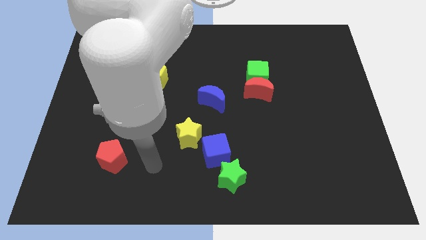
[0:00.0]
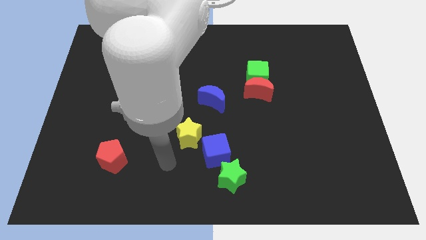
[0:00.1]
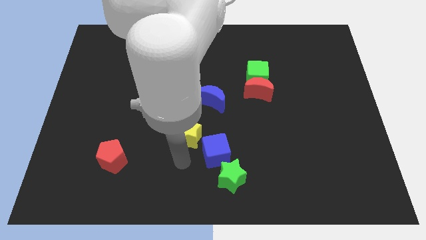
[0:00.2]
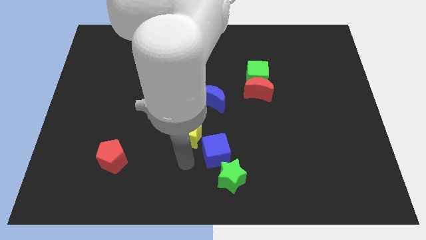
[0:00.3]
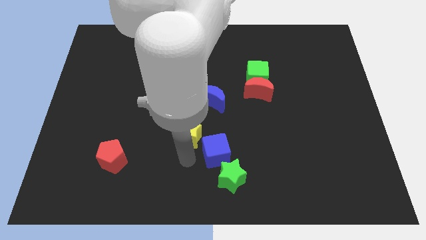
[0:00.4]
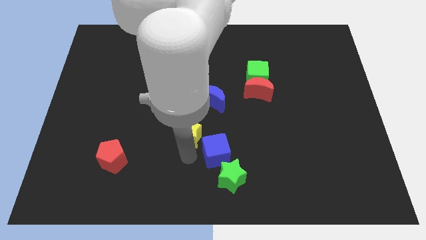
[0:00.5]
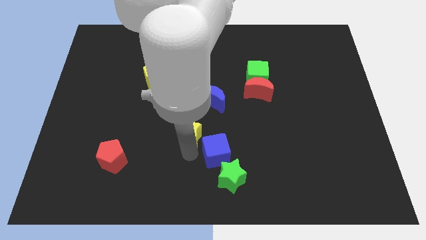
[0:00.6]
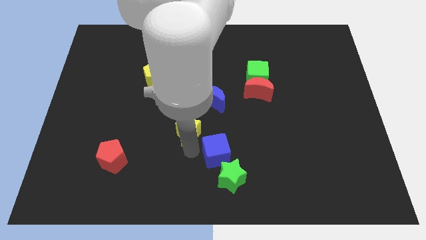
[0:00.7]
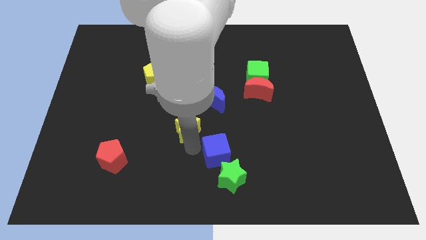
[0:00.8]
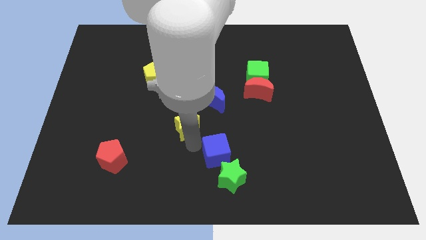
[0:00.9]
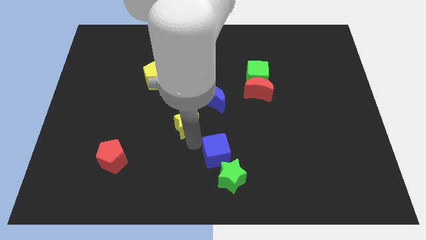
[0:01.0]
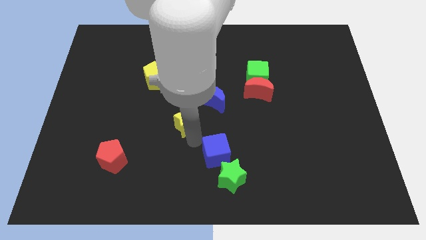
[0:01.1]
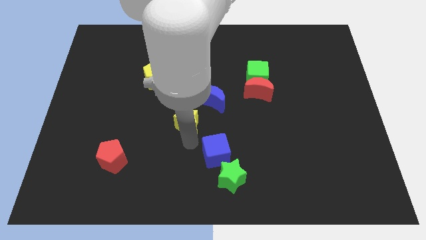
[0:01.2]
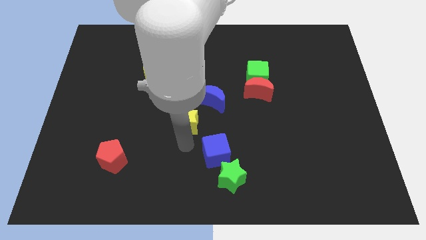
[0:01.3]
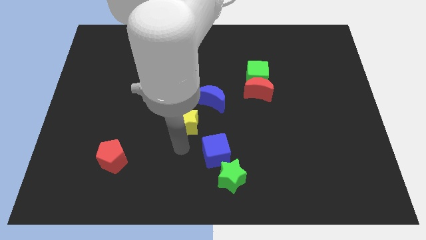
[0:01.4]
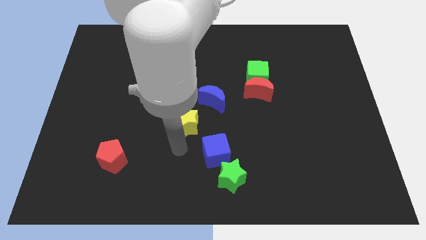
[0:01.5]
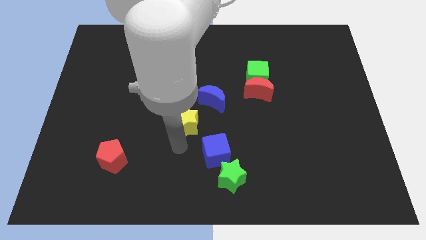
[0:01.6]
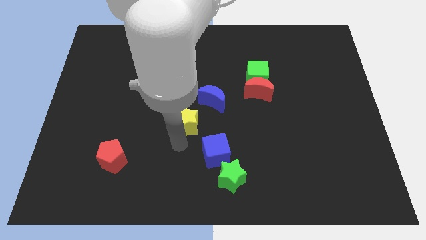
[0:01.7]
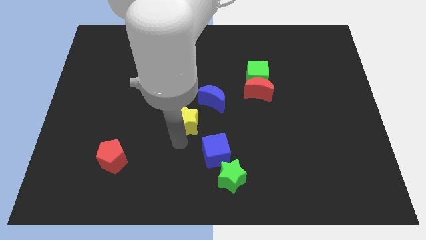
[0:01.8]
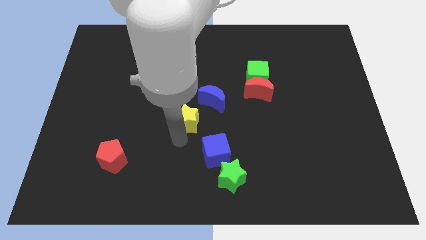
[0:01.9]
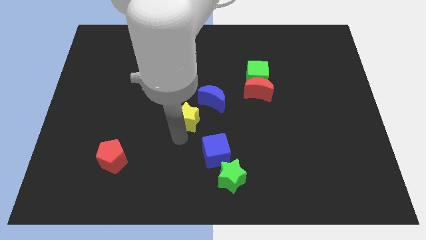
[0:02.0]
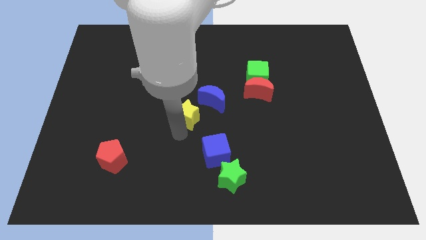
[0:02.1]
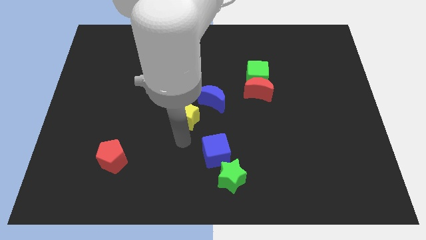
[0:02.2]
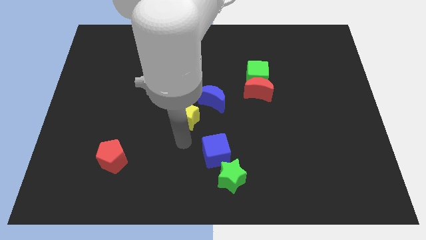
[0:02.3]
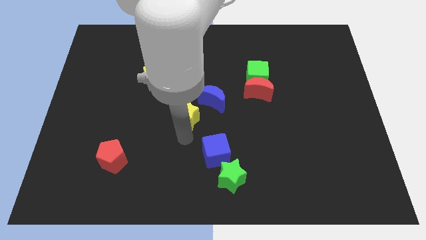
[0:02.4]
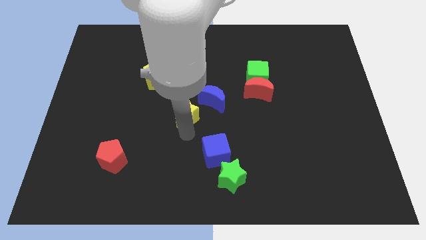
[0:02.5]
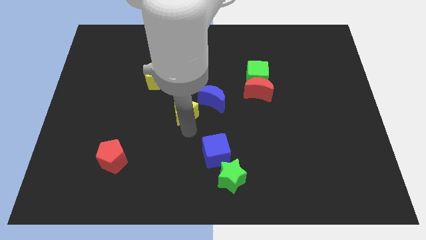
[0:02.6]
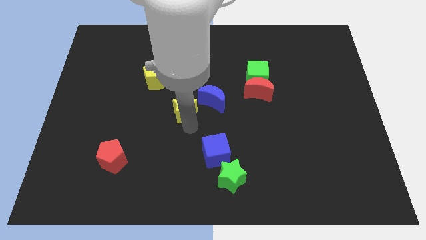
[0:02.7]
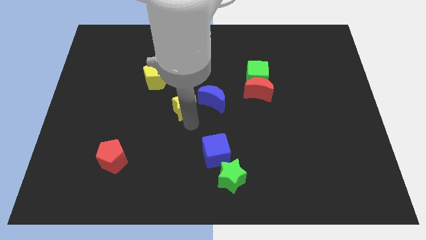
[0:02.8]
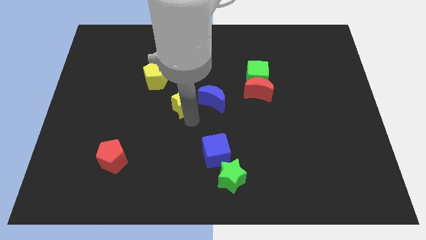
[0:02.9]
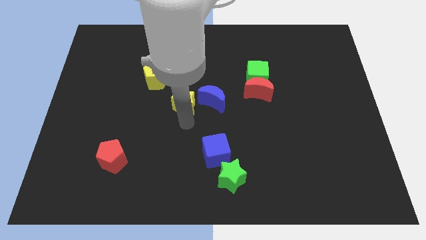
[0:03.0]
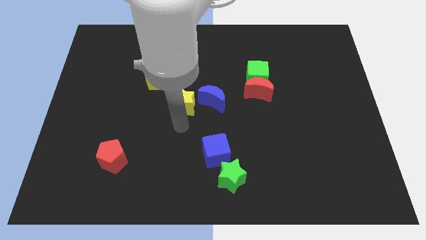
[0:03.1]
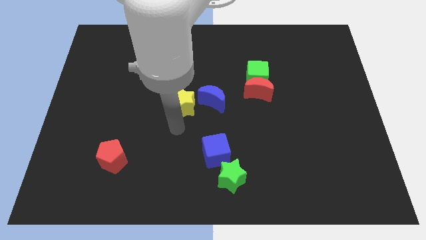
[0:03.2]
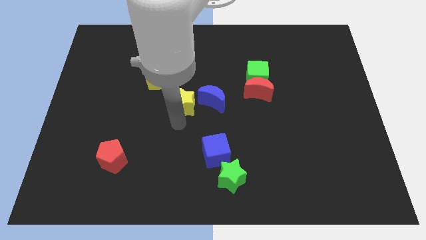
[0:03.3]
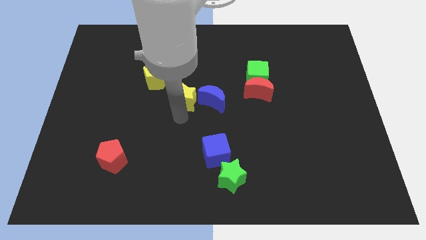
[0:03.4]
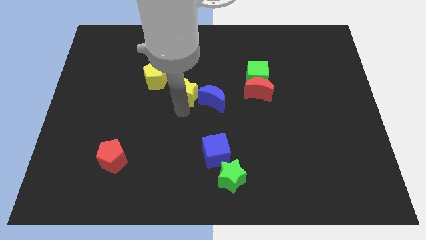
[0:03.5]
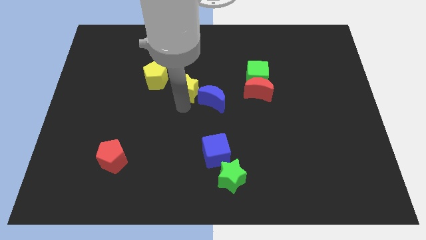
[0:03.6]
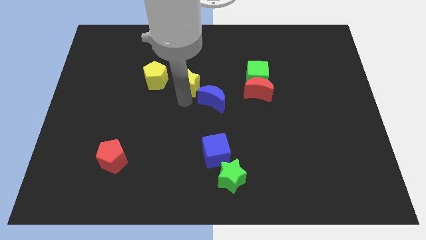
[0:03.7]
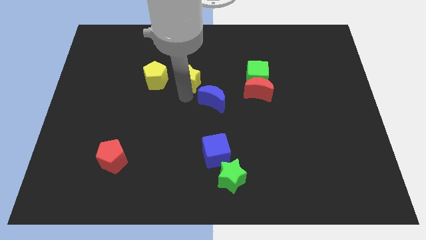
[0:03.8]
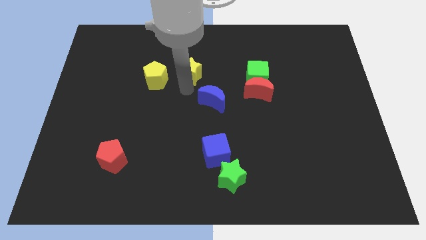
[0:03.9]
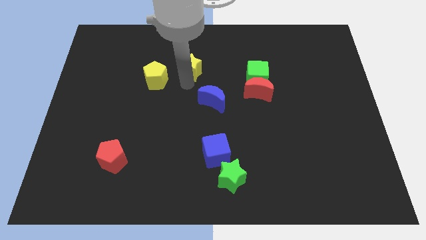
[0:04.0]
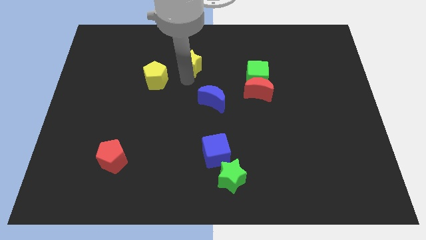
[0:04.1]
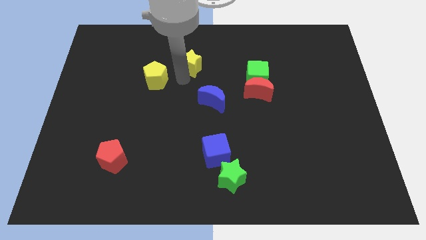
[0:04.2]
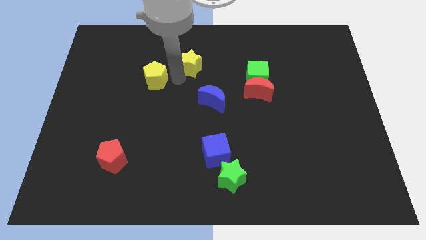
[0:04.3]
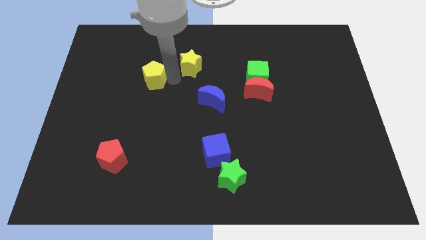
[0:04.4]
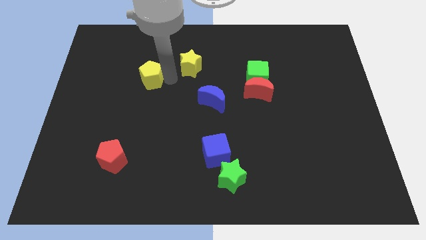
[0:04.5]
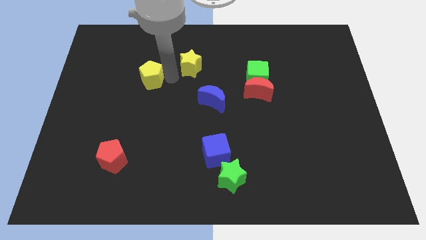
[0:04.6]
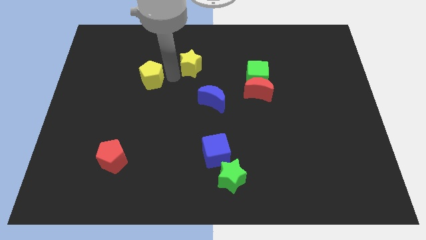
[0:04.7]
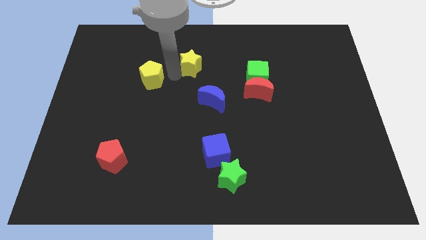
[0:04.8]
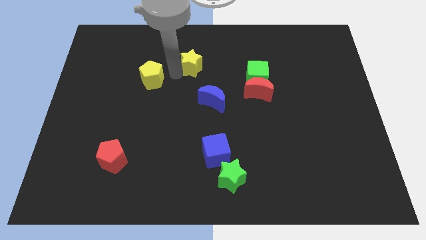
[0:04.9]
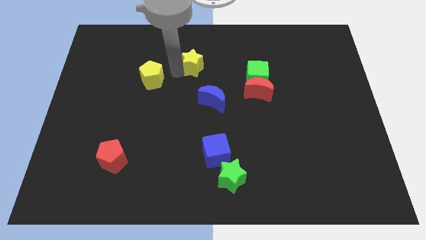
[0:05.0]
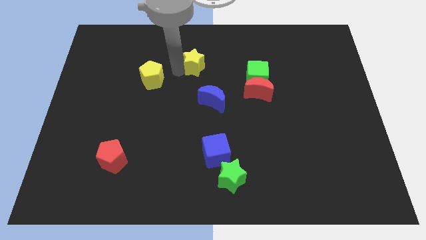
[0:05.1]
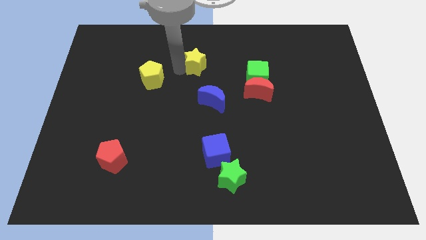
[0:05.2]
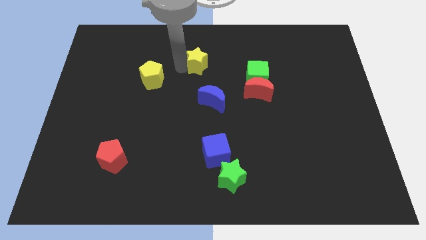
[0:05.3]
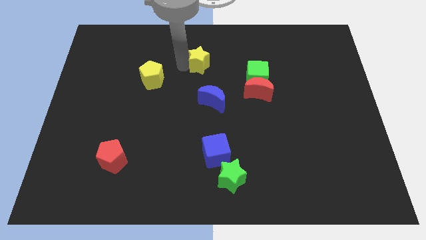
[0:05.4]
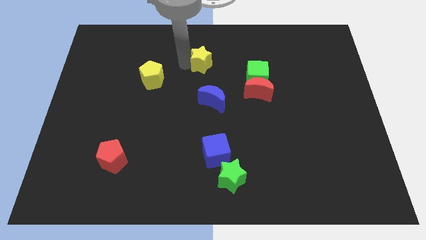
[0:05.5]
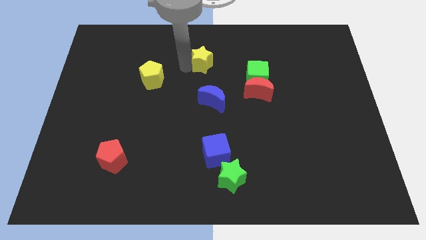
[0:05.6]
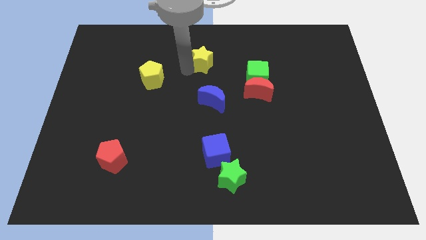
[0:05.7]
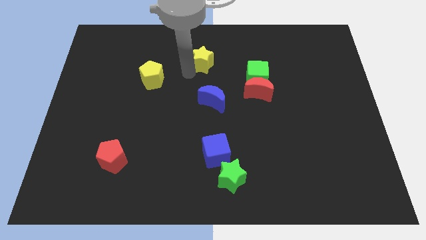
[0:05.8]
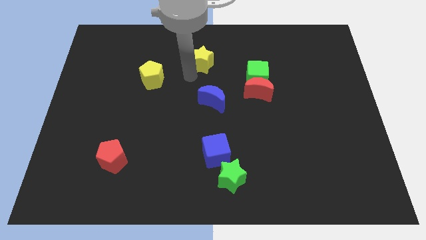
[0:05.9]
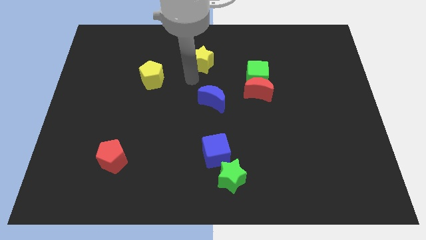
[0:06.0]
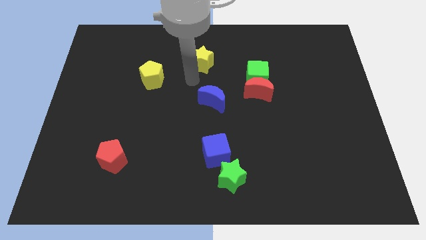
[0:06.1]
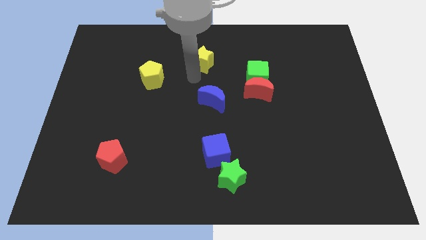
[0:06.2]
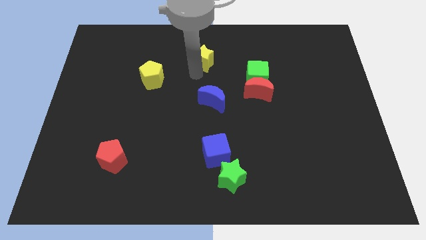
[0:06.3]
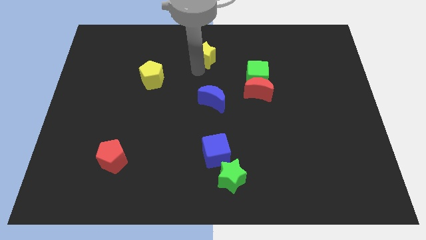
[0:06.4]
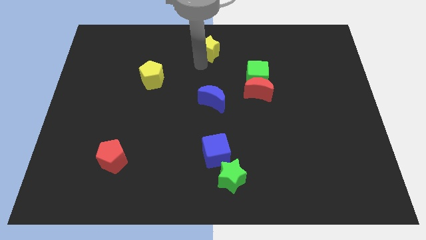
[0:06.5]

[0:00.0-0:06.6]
move the yellow star to the top side
